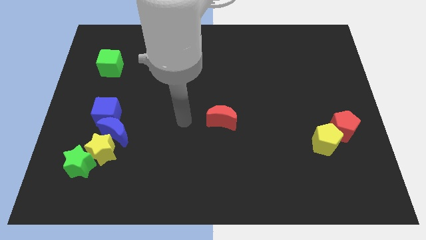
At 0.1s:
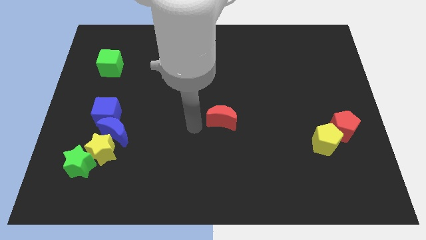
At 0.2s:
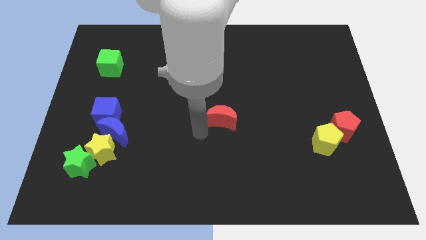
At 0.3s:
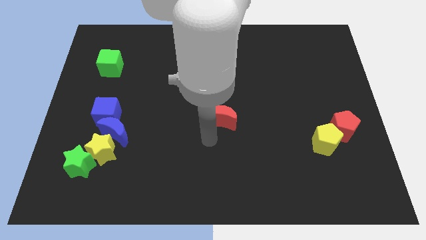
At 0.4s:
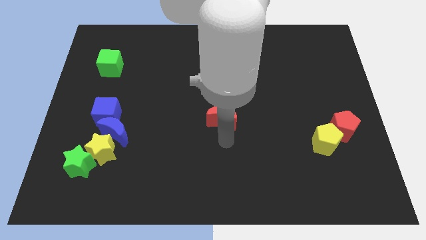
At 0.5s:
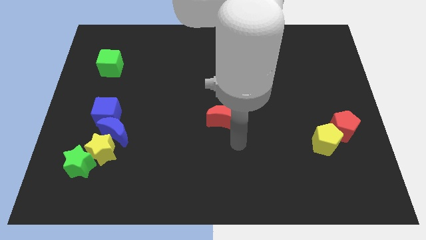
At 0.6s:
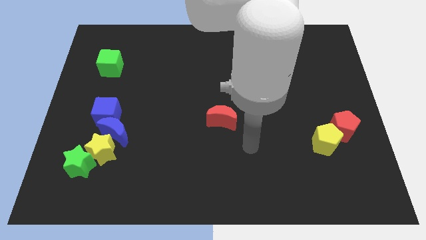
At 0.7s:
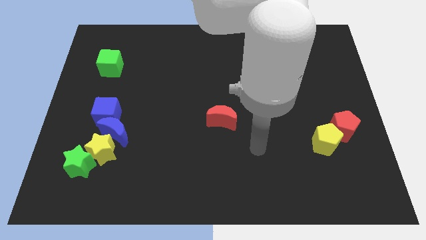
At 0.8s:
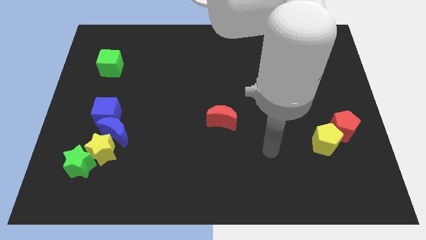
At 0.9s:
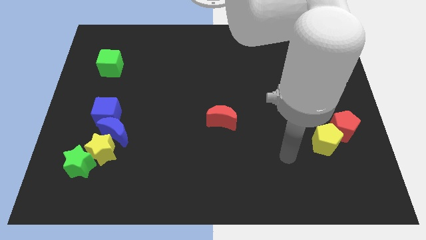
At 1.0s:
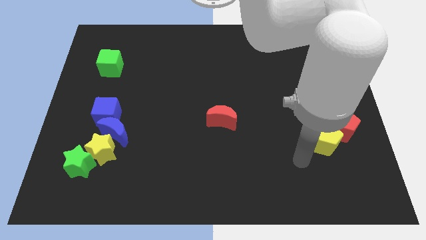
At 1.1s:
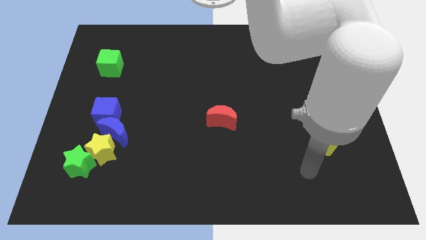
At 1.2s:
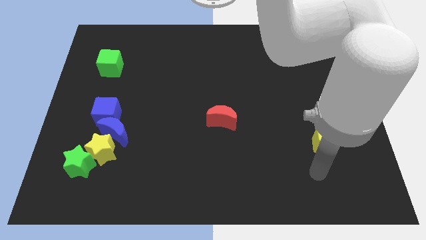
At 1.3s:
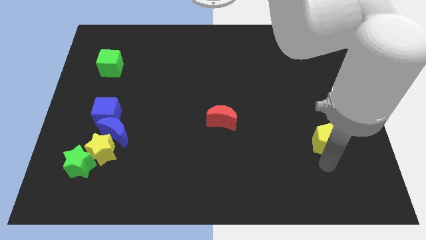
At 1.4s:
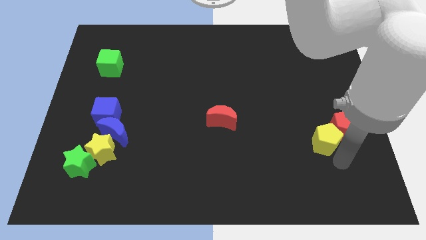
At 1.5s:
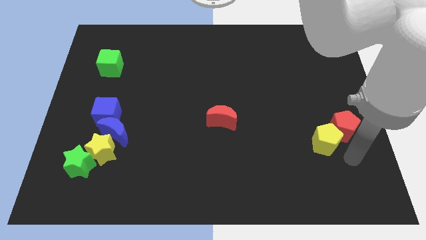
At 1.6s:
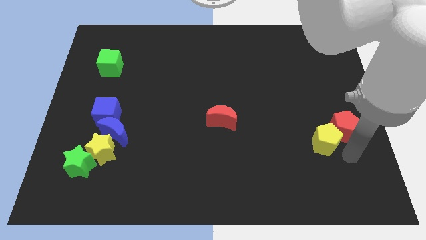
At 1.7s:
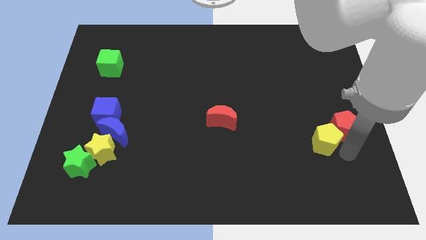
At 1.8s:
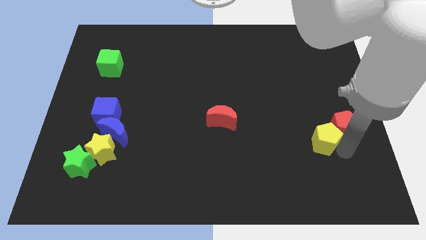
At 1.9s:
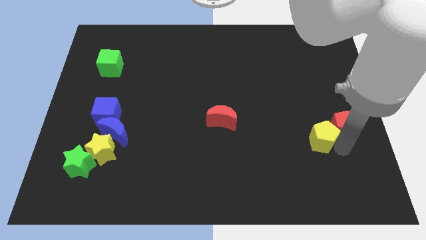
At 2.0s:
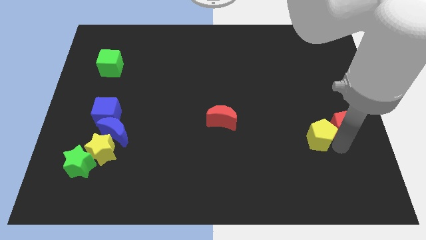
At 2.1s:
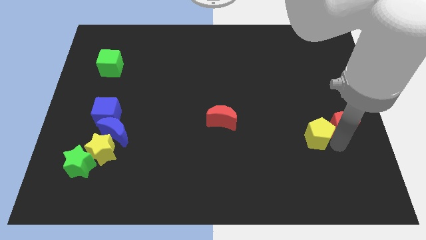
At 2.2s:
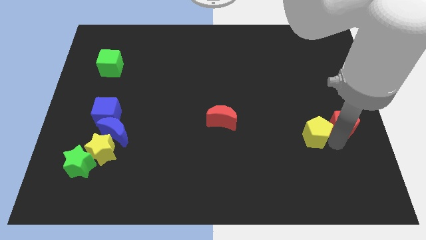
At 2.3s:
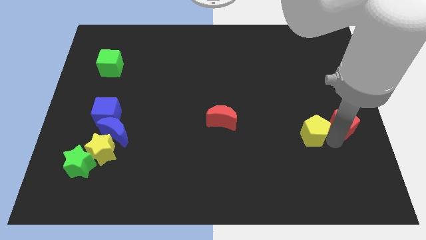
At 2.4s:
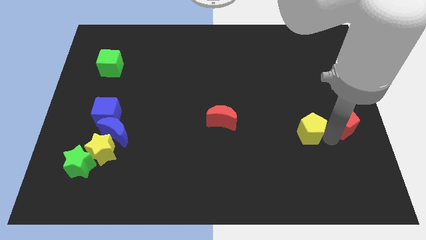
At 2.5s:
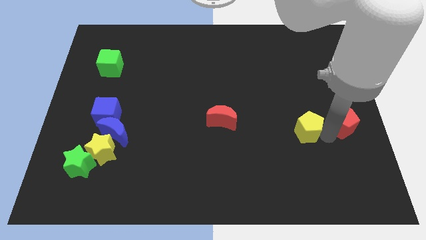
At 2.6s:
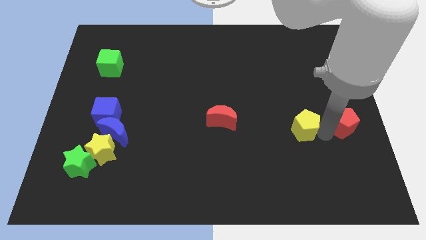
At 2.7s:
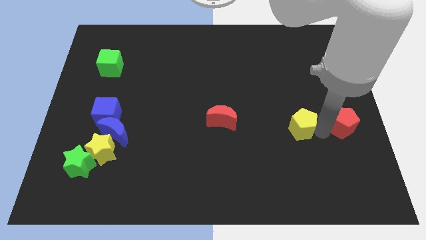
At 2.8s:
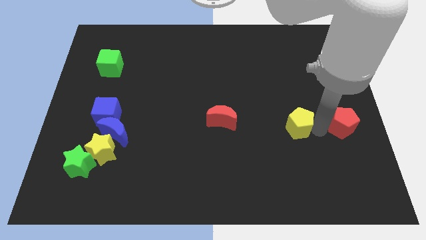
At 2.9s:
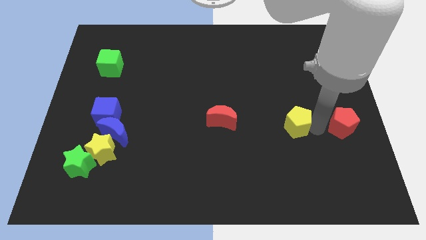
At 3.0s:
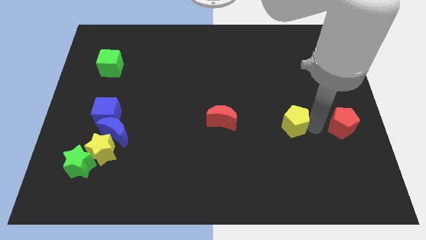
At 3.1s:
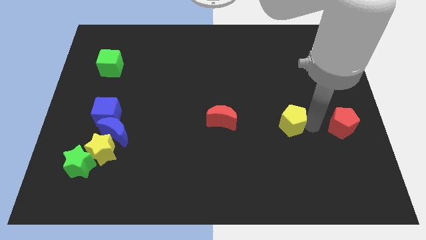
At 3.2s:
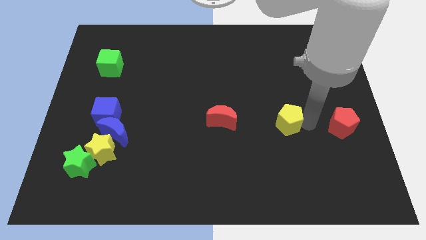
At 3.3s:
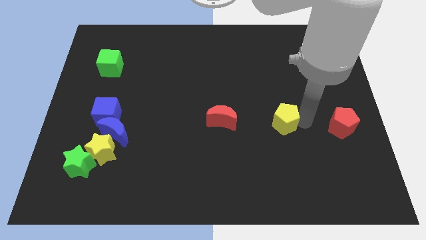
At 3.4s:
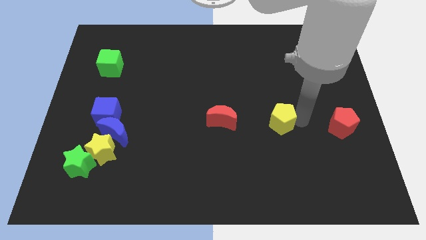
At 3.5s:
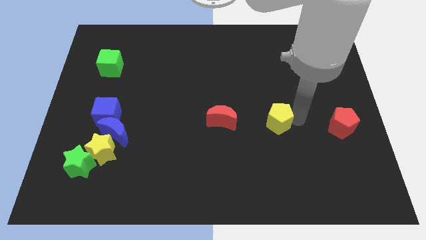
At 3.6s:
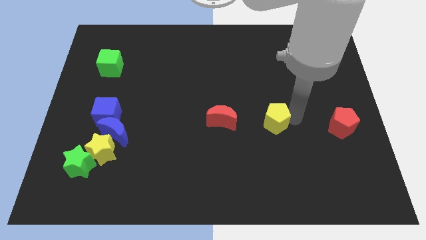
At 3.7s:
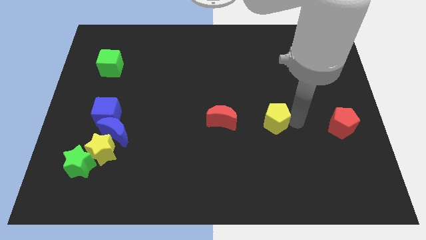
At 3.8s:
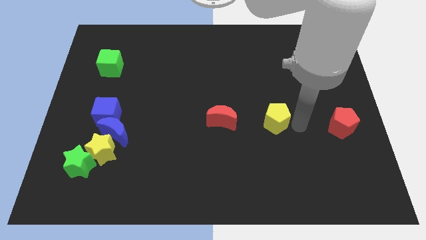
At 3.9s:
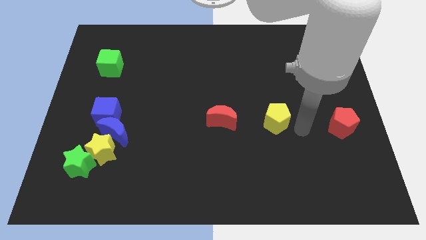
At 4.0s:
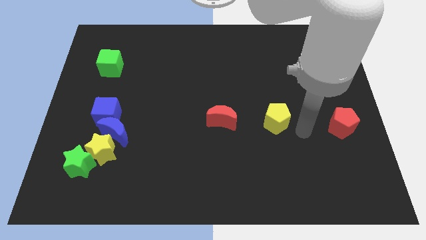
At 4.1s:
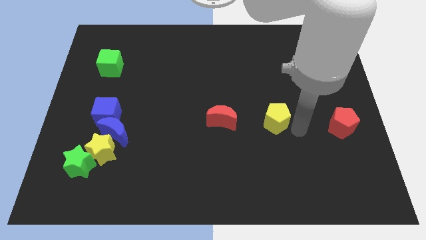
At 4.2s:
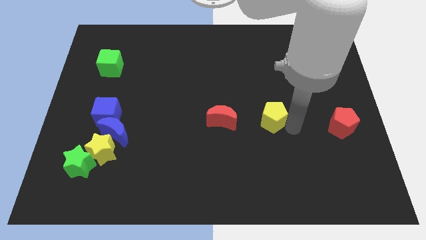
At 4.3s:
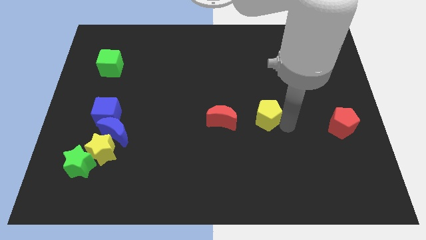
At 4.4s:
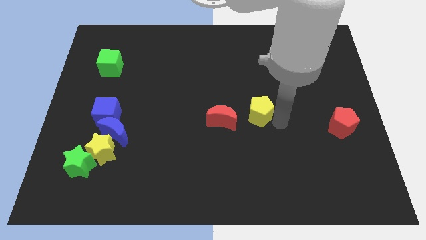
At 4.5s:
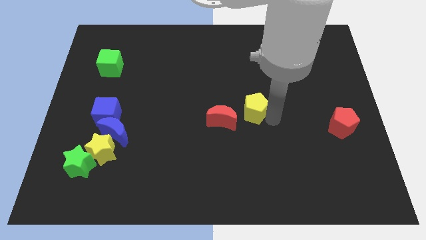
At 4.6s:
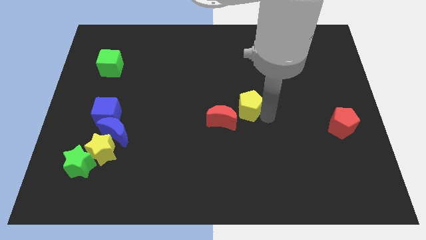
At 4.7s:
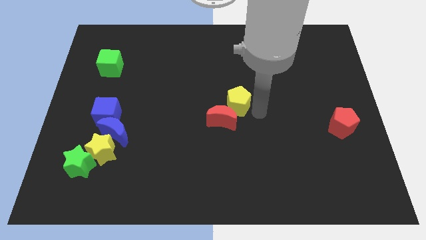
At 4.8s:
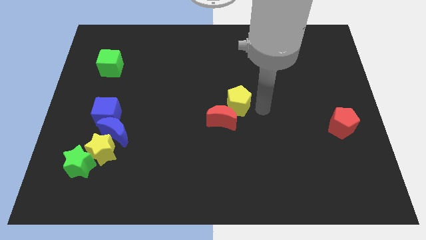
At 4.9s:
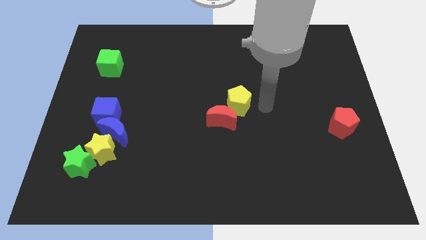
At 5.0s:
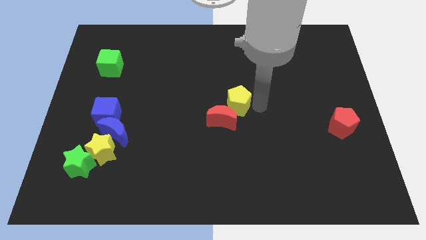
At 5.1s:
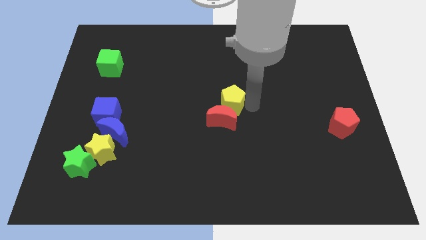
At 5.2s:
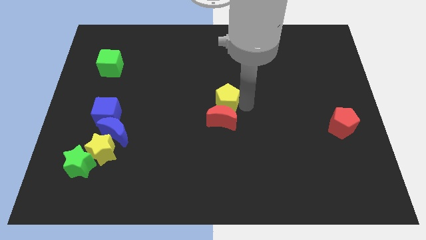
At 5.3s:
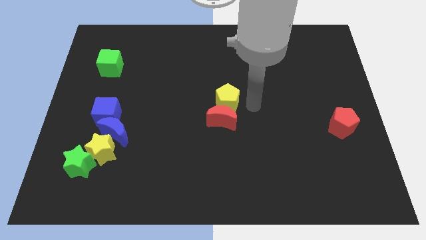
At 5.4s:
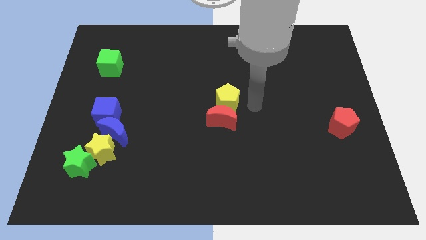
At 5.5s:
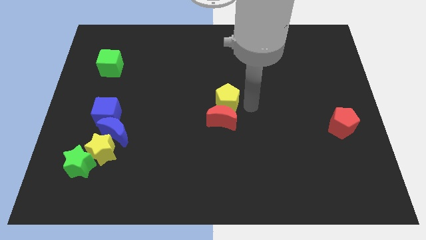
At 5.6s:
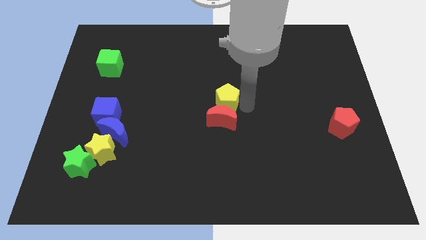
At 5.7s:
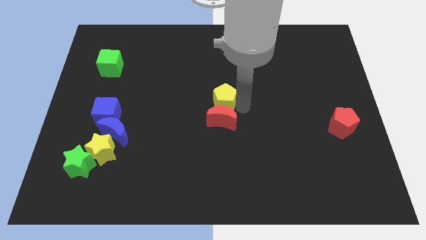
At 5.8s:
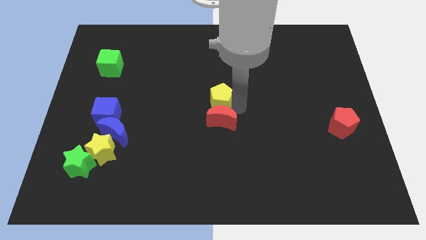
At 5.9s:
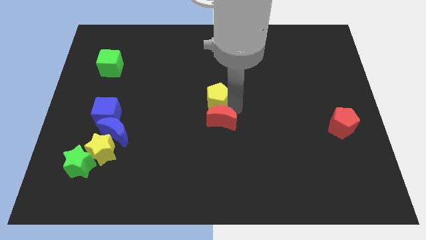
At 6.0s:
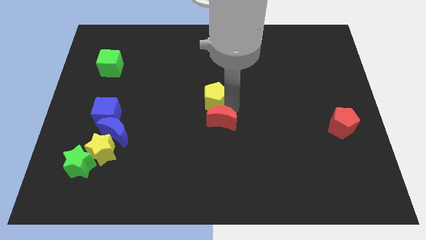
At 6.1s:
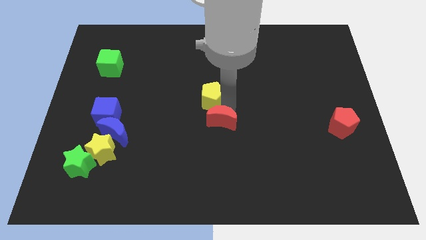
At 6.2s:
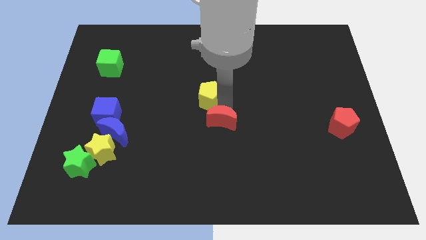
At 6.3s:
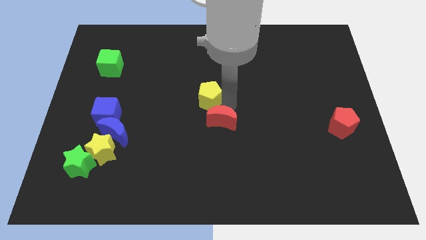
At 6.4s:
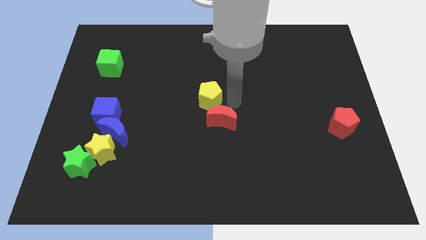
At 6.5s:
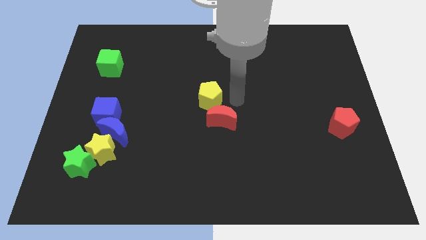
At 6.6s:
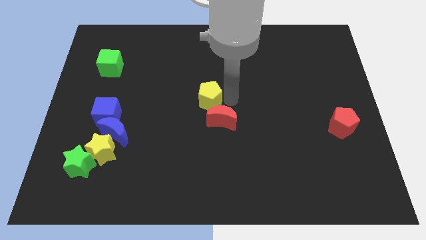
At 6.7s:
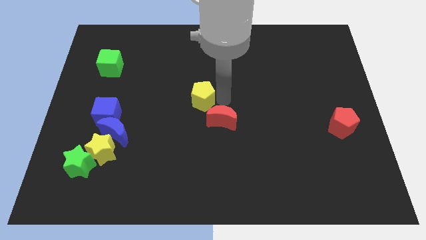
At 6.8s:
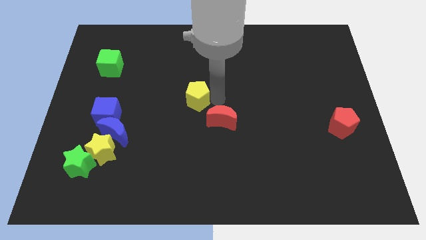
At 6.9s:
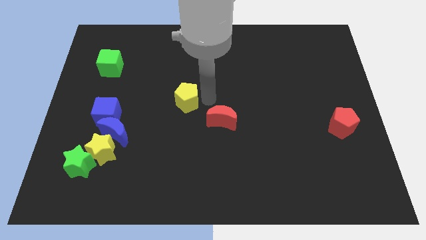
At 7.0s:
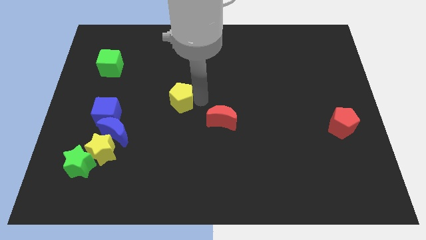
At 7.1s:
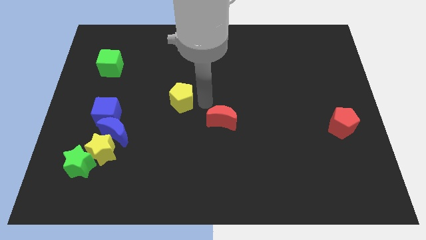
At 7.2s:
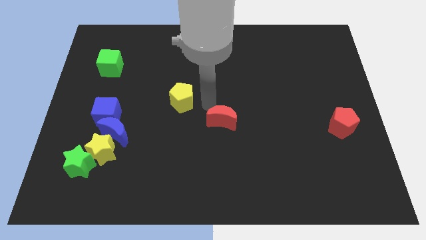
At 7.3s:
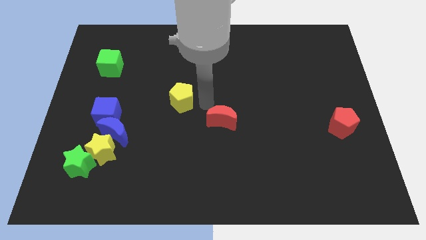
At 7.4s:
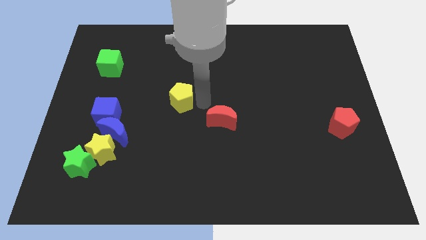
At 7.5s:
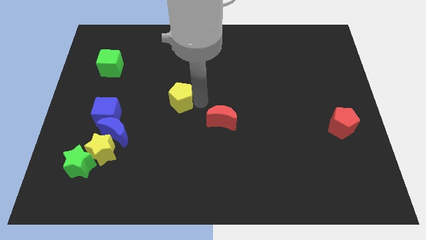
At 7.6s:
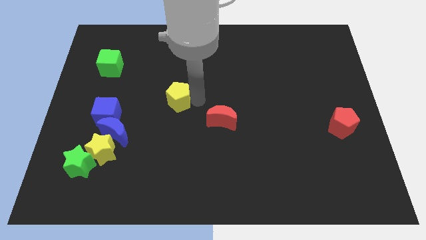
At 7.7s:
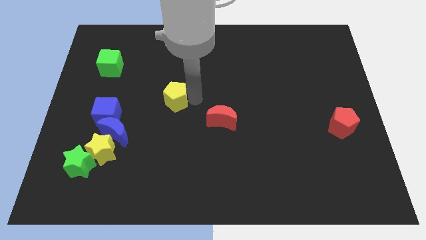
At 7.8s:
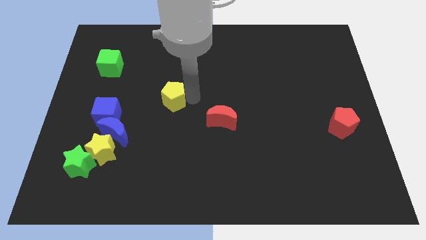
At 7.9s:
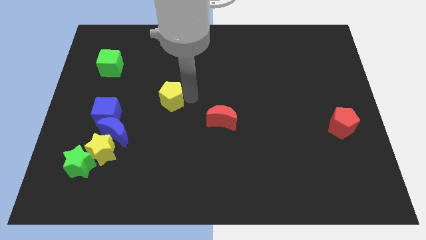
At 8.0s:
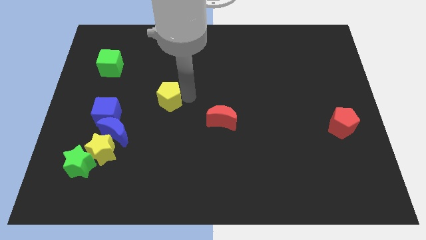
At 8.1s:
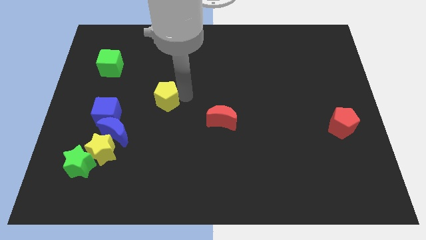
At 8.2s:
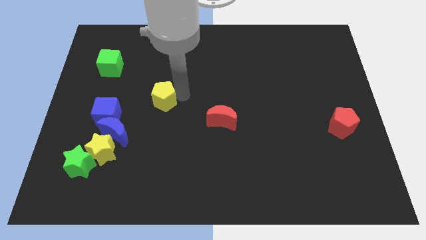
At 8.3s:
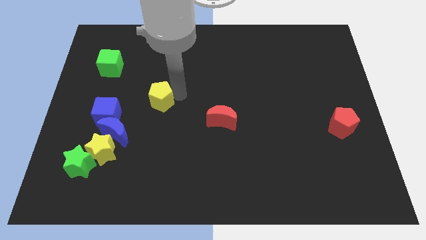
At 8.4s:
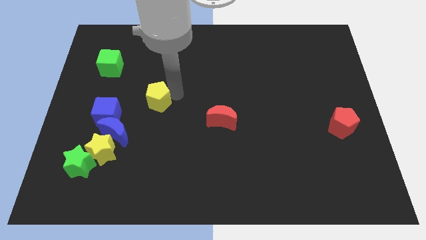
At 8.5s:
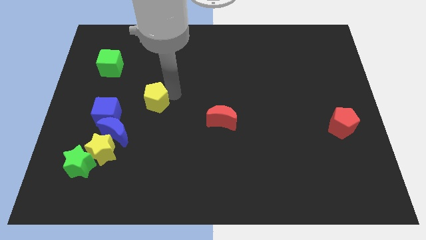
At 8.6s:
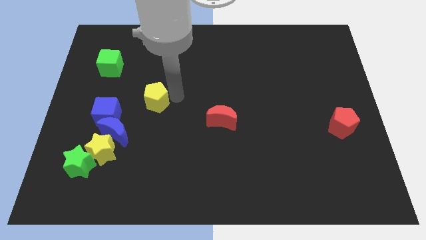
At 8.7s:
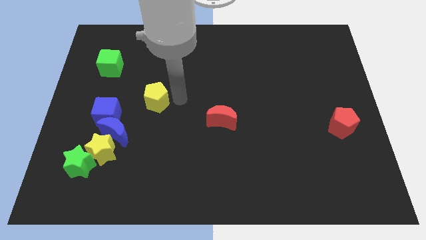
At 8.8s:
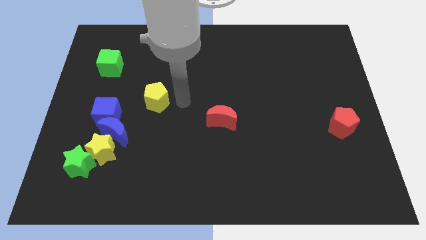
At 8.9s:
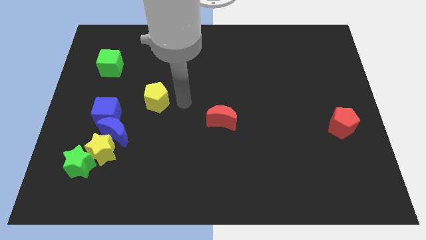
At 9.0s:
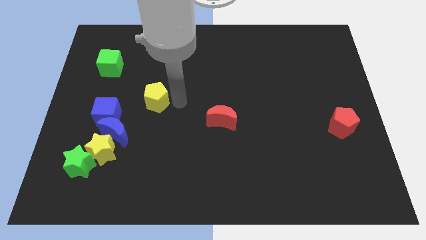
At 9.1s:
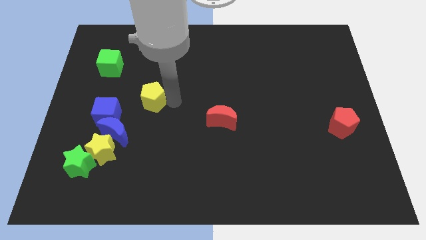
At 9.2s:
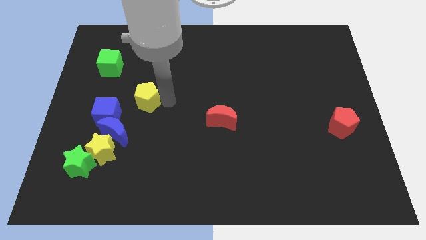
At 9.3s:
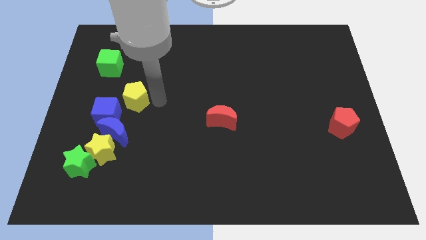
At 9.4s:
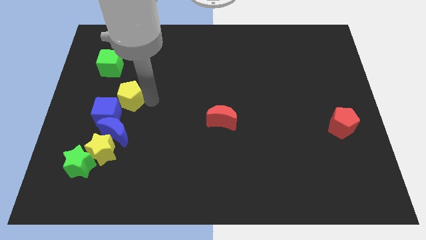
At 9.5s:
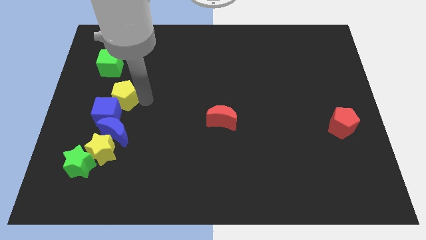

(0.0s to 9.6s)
put the yellow pentagon to the top of the yellow star
